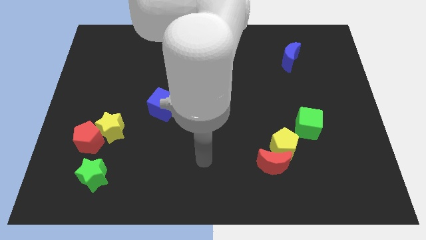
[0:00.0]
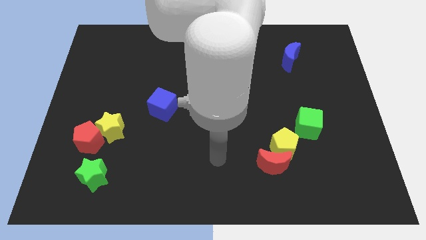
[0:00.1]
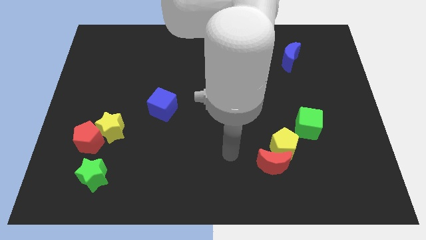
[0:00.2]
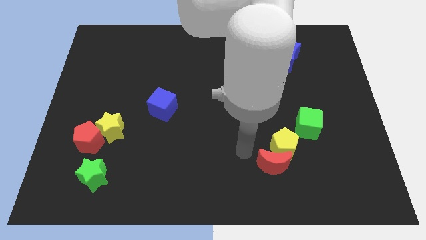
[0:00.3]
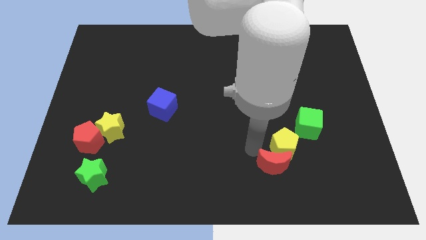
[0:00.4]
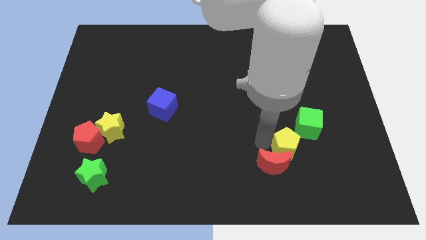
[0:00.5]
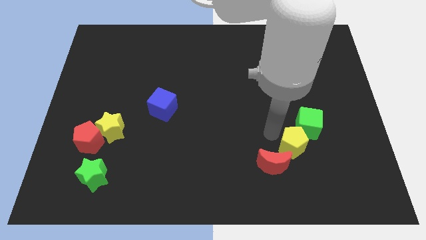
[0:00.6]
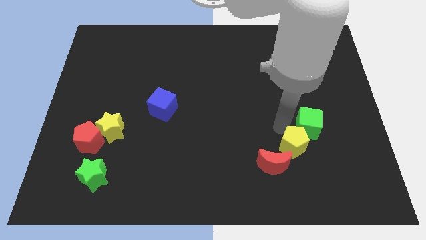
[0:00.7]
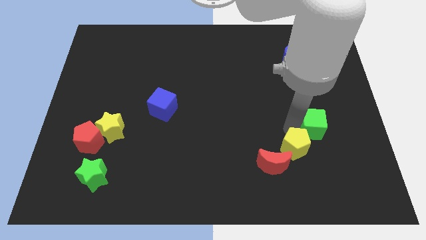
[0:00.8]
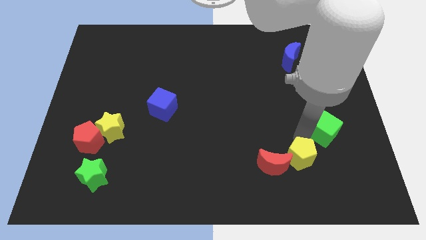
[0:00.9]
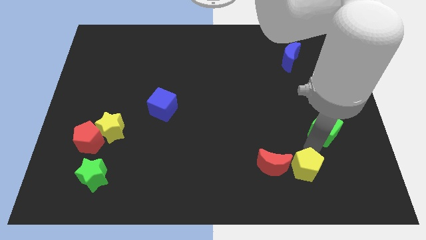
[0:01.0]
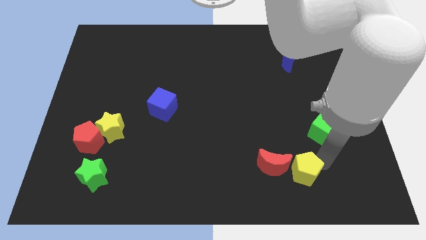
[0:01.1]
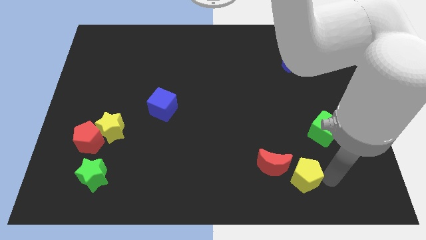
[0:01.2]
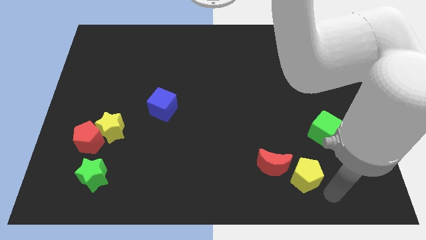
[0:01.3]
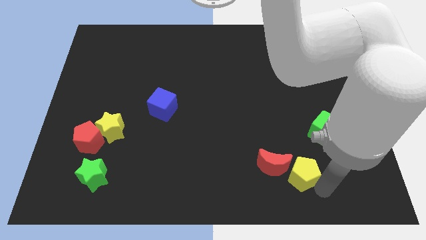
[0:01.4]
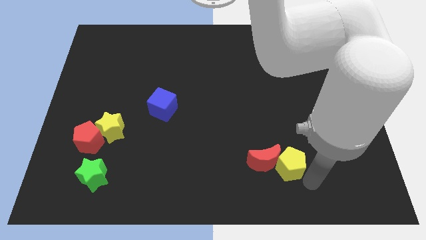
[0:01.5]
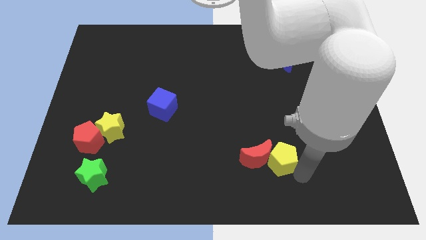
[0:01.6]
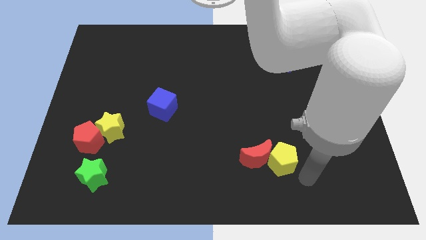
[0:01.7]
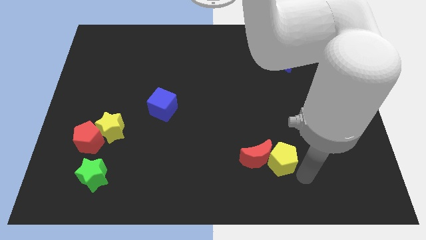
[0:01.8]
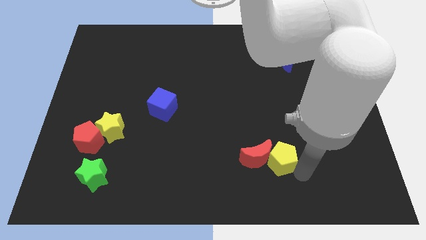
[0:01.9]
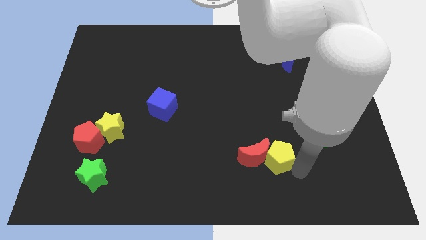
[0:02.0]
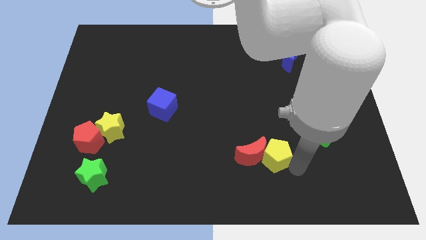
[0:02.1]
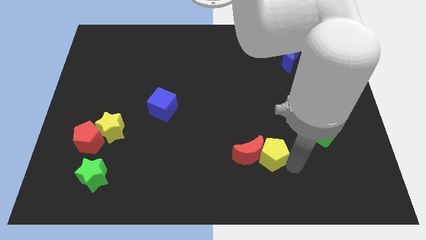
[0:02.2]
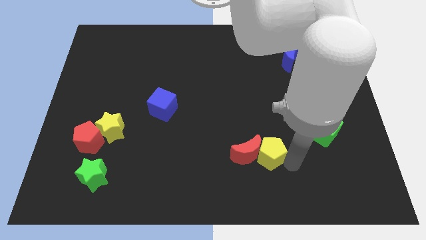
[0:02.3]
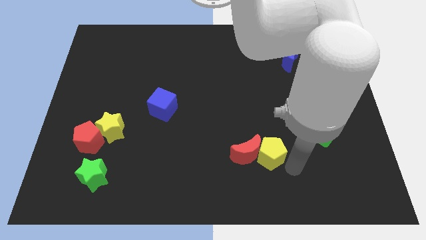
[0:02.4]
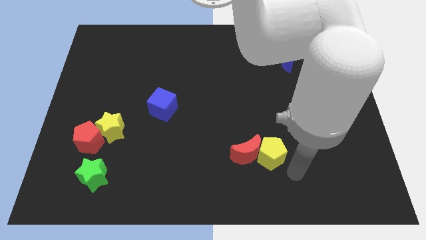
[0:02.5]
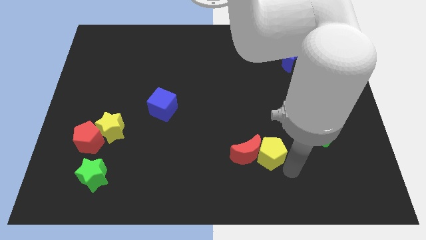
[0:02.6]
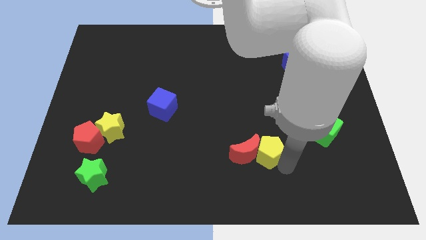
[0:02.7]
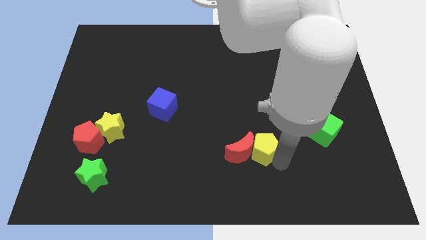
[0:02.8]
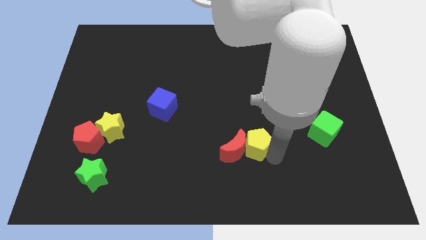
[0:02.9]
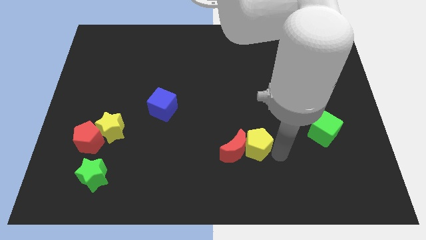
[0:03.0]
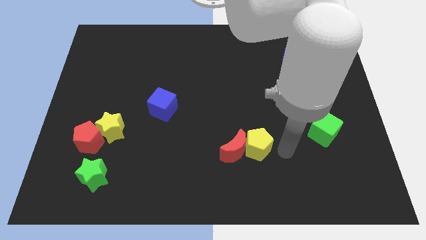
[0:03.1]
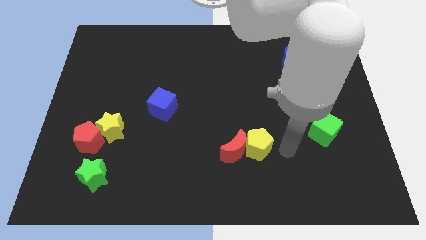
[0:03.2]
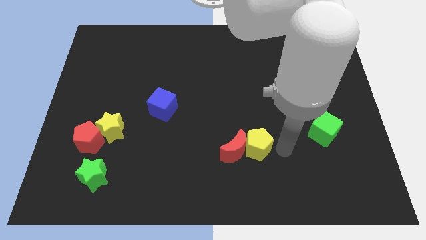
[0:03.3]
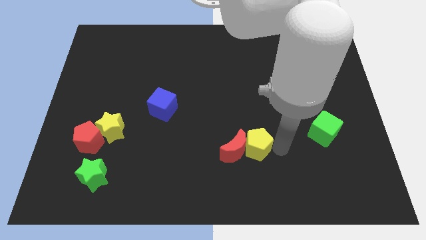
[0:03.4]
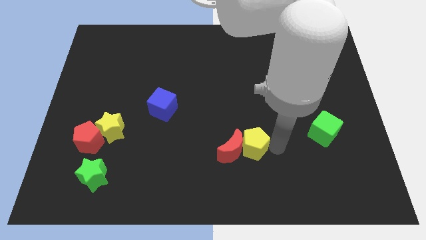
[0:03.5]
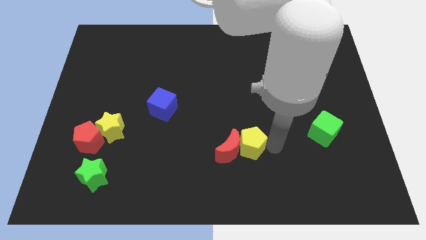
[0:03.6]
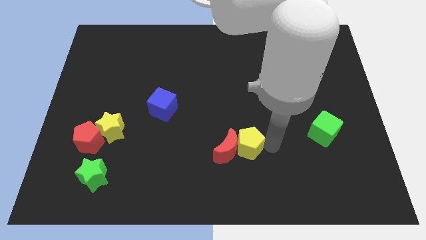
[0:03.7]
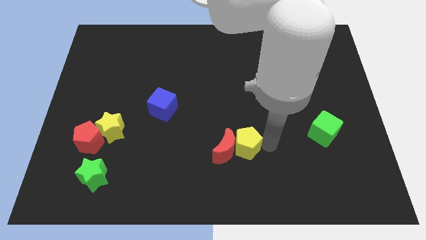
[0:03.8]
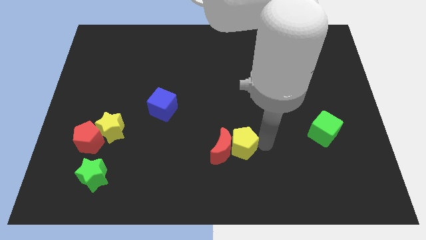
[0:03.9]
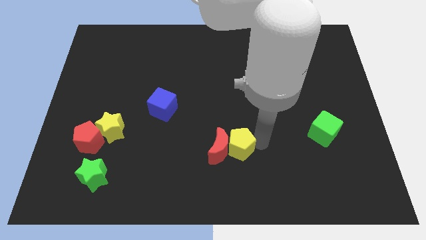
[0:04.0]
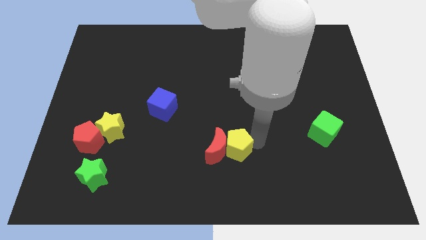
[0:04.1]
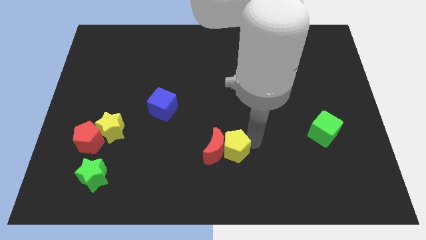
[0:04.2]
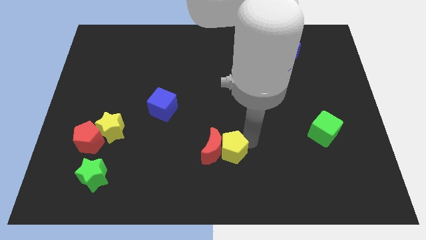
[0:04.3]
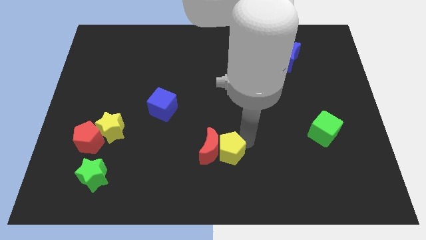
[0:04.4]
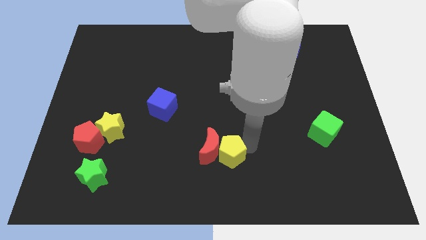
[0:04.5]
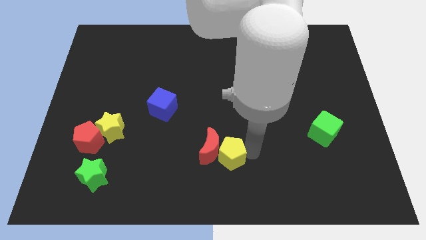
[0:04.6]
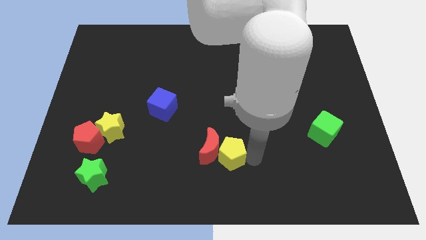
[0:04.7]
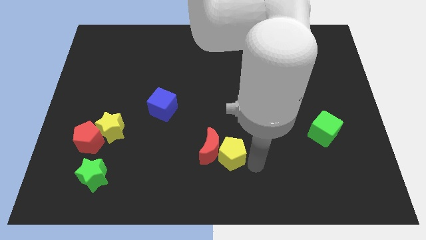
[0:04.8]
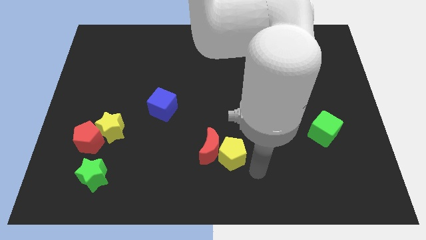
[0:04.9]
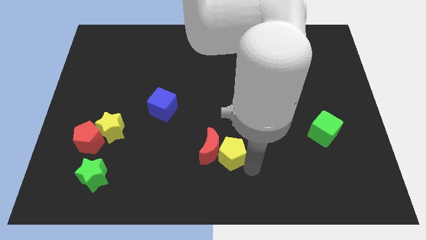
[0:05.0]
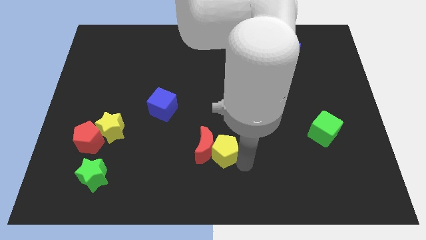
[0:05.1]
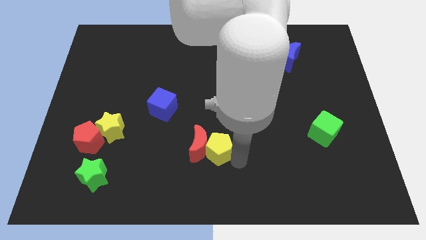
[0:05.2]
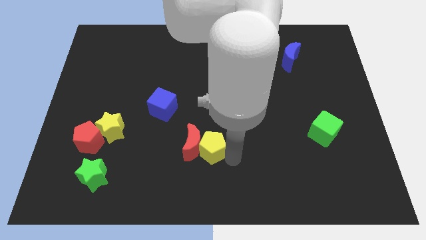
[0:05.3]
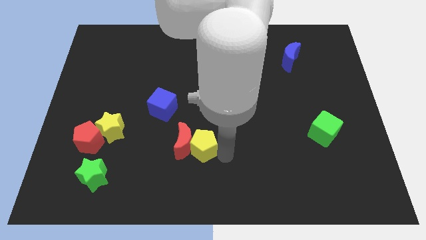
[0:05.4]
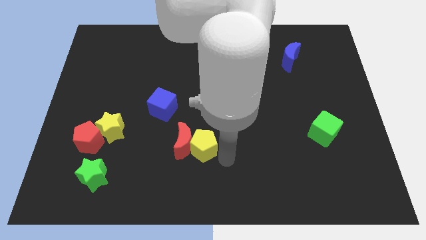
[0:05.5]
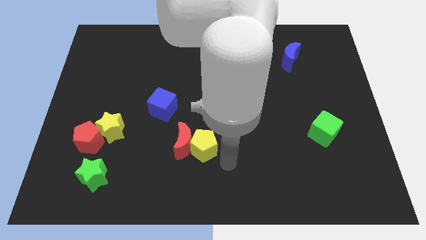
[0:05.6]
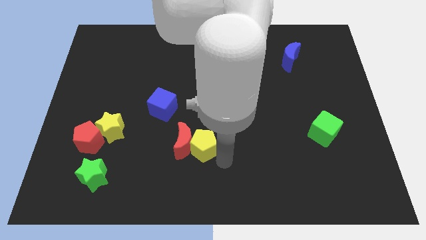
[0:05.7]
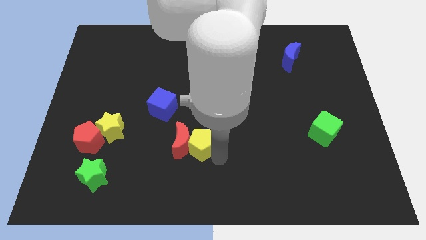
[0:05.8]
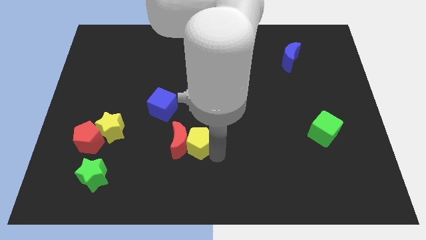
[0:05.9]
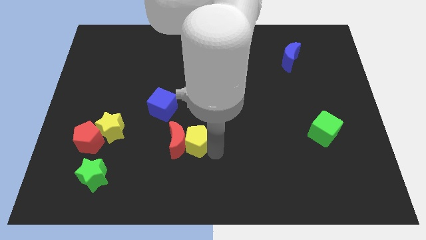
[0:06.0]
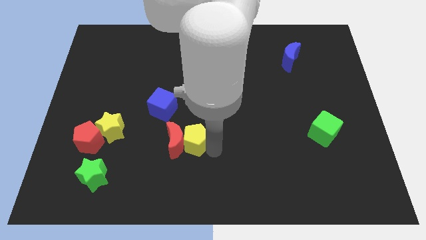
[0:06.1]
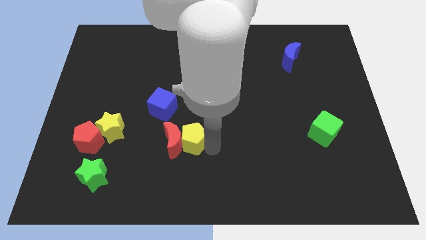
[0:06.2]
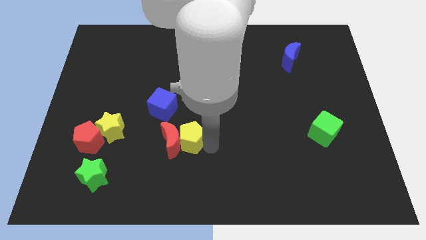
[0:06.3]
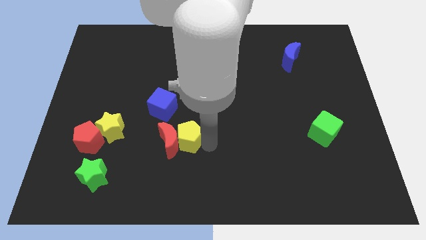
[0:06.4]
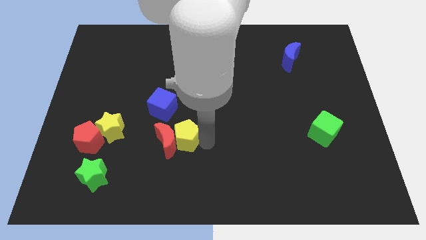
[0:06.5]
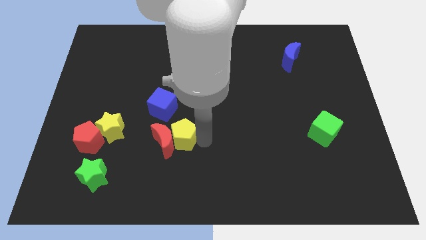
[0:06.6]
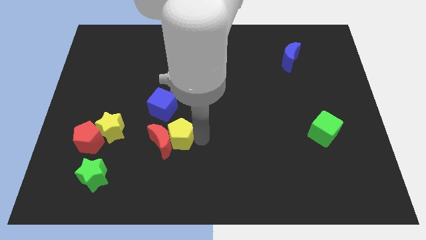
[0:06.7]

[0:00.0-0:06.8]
put the yellow pentagon below the blue cube

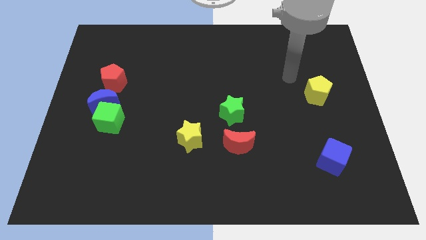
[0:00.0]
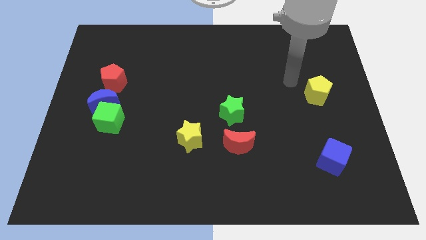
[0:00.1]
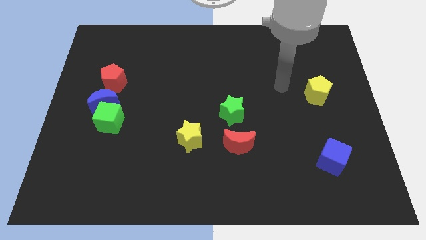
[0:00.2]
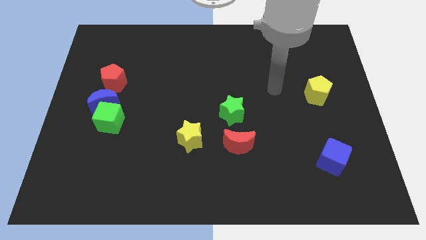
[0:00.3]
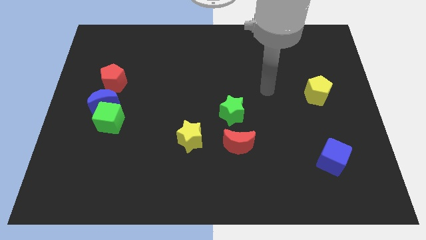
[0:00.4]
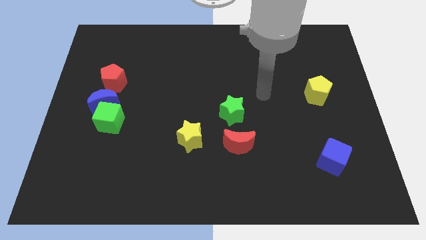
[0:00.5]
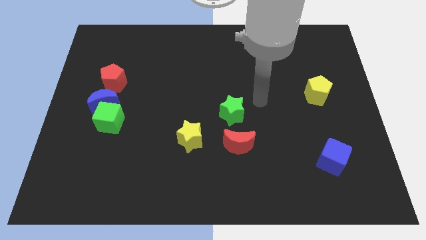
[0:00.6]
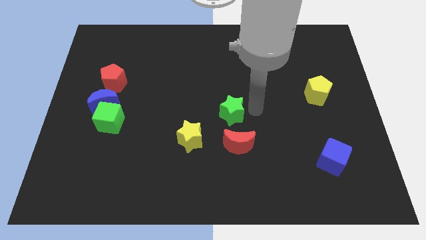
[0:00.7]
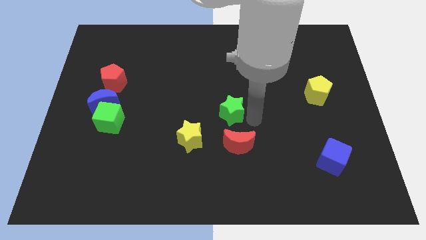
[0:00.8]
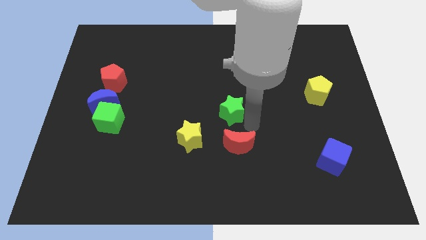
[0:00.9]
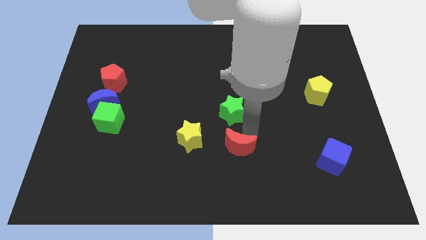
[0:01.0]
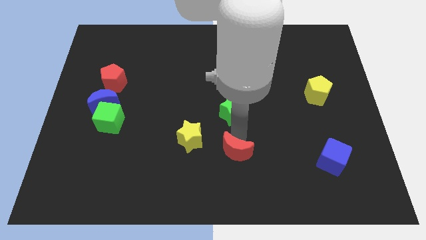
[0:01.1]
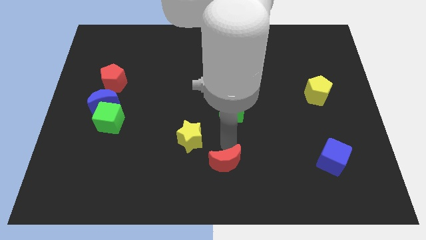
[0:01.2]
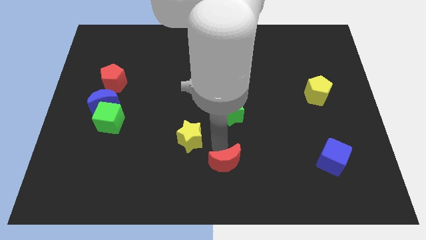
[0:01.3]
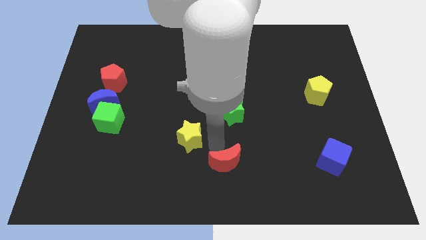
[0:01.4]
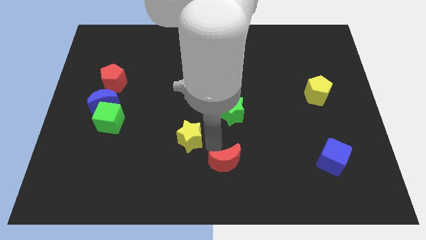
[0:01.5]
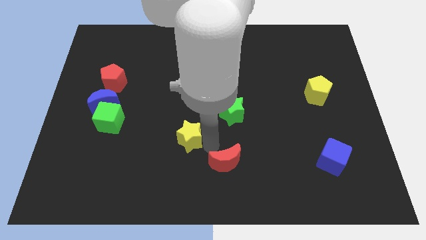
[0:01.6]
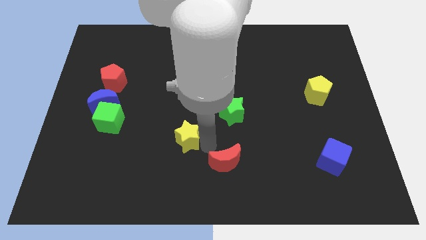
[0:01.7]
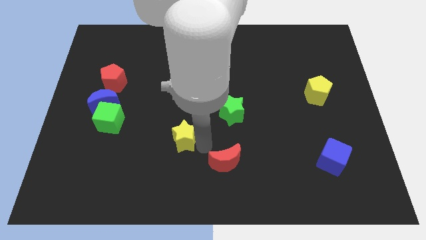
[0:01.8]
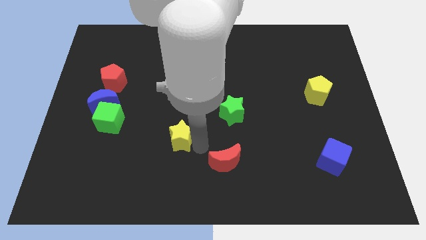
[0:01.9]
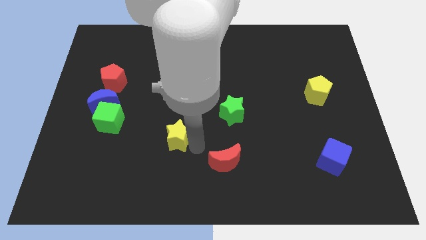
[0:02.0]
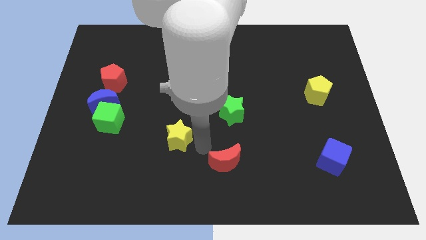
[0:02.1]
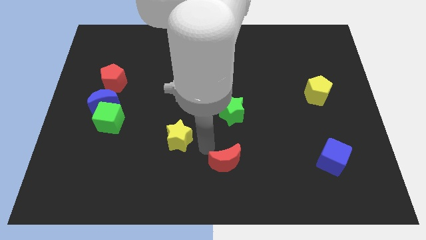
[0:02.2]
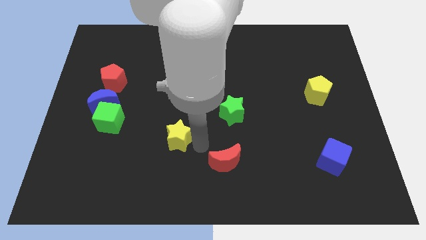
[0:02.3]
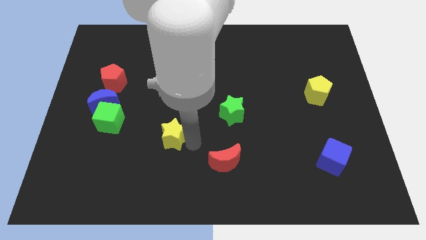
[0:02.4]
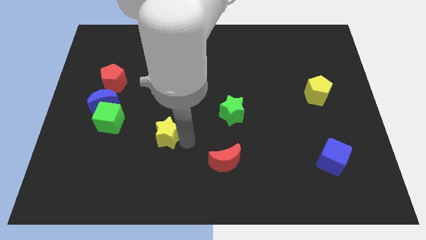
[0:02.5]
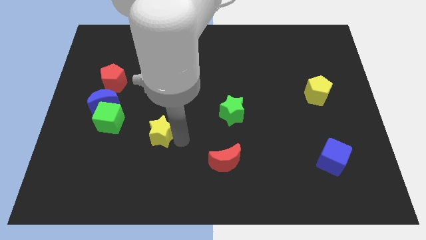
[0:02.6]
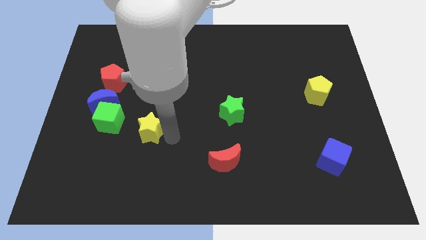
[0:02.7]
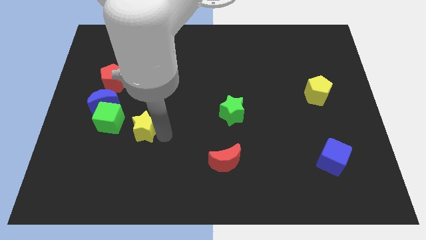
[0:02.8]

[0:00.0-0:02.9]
push the yellow star to the bottom right of the blue moon
